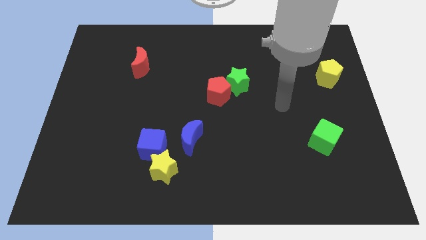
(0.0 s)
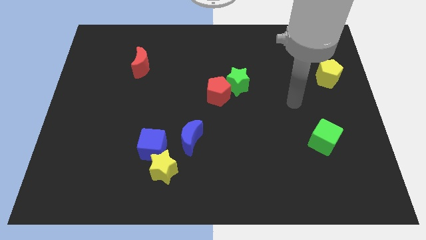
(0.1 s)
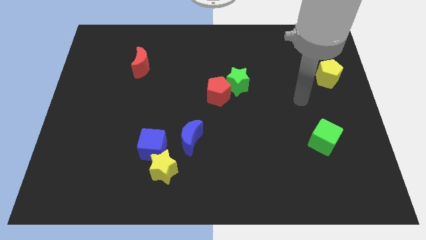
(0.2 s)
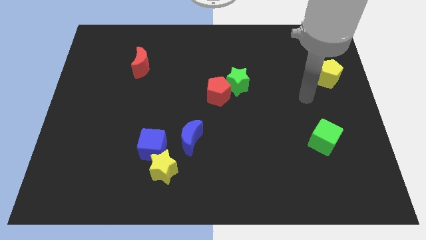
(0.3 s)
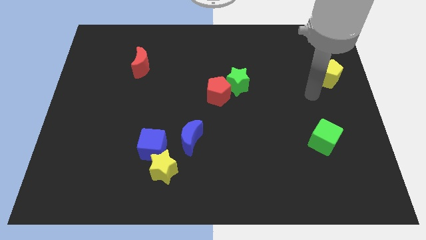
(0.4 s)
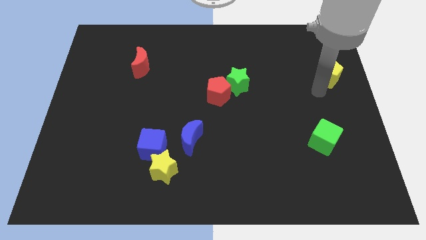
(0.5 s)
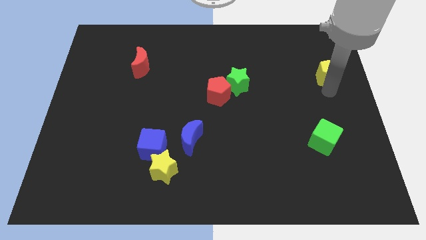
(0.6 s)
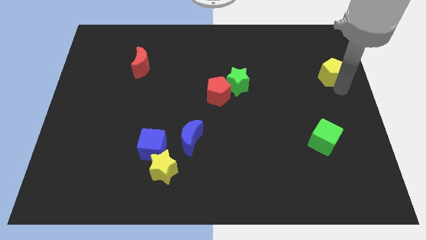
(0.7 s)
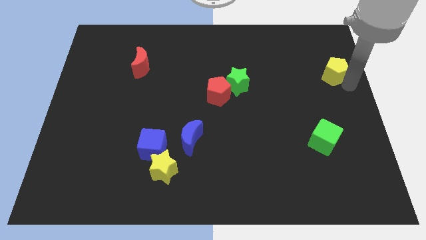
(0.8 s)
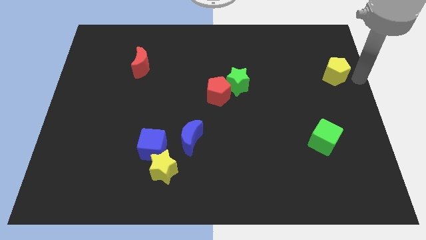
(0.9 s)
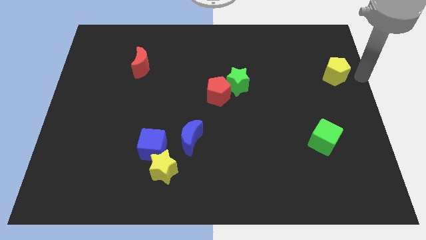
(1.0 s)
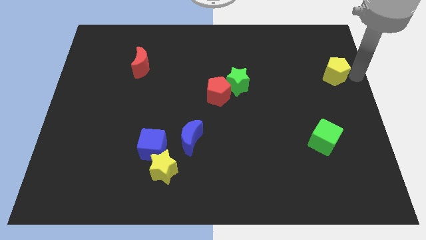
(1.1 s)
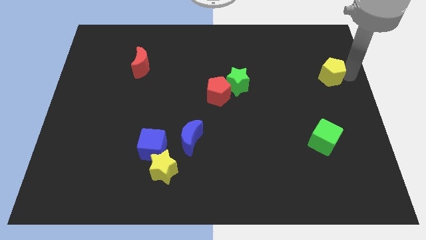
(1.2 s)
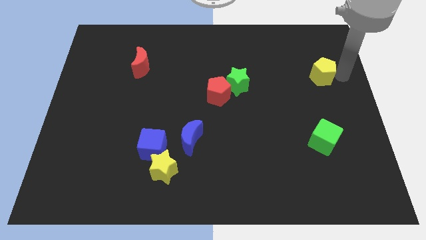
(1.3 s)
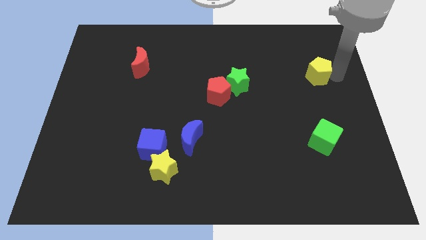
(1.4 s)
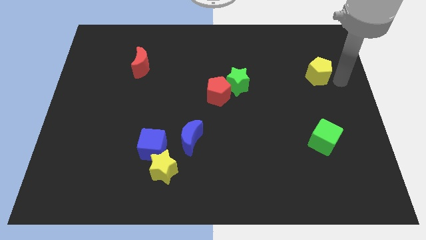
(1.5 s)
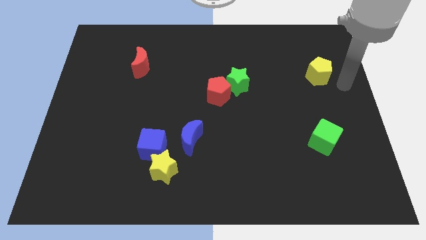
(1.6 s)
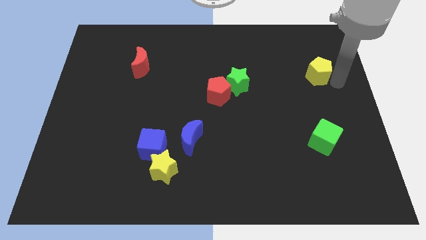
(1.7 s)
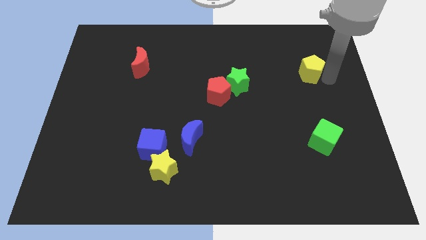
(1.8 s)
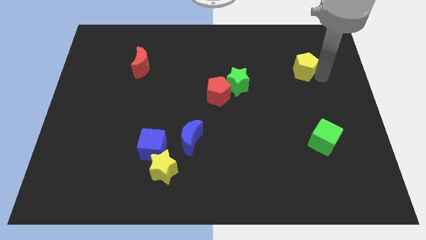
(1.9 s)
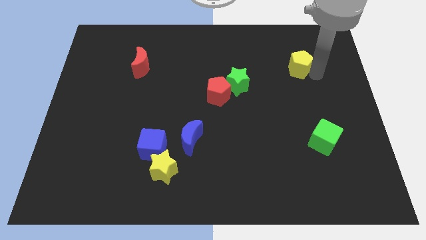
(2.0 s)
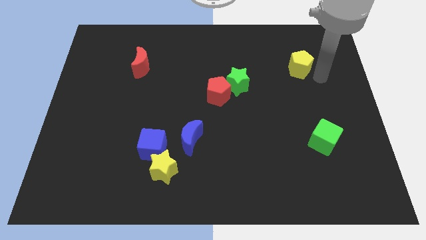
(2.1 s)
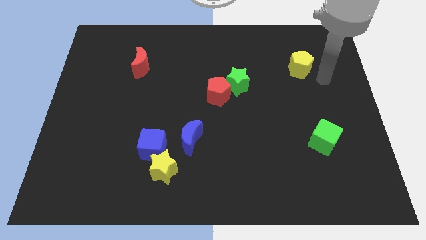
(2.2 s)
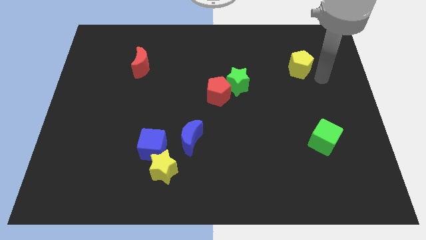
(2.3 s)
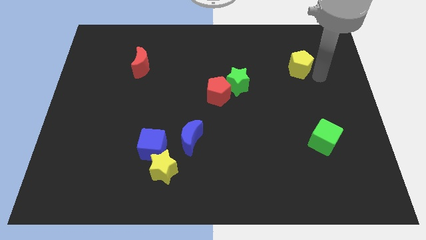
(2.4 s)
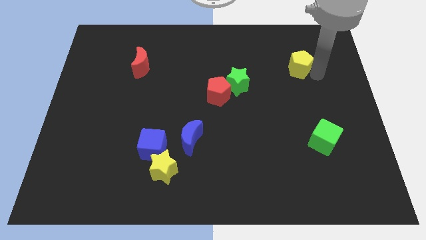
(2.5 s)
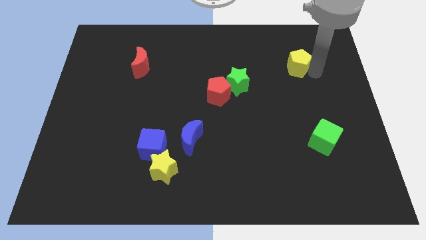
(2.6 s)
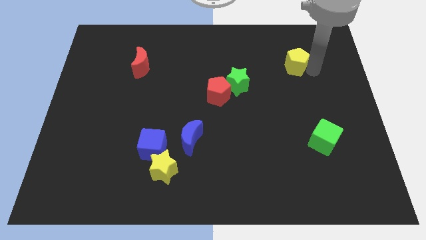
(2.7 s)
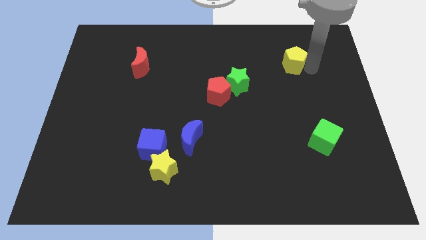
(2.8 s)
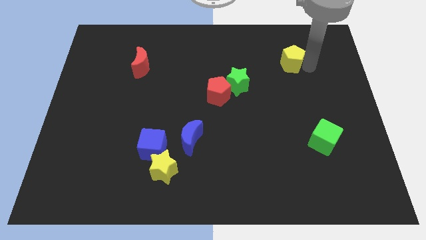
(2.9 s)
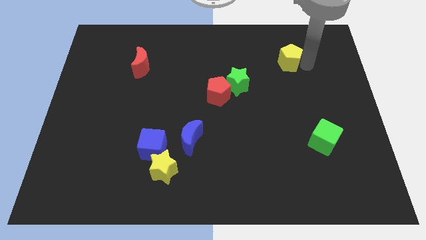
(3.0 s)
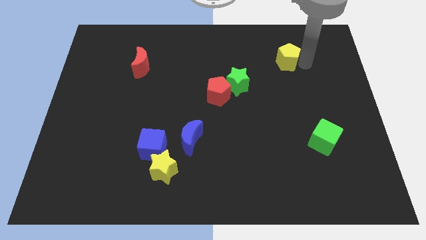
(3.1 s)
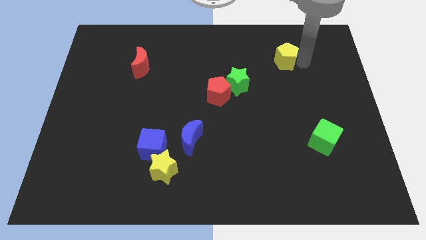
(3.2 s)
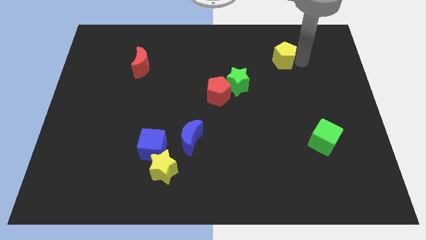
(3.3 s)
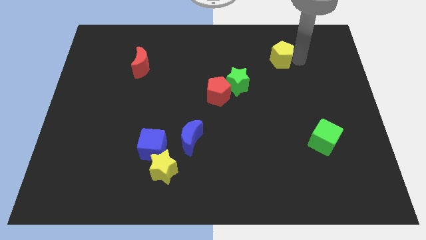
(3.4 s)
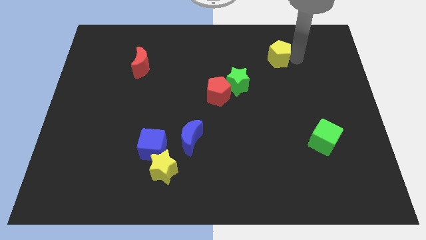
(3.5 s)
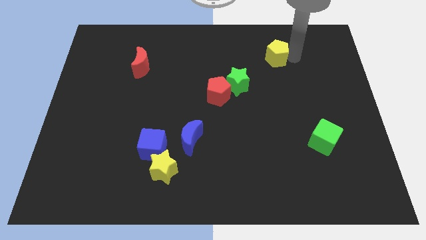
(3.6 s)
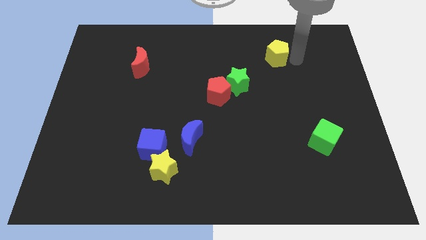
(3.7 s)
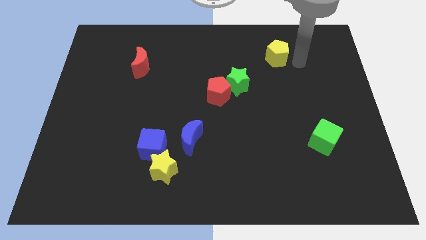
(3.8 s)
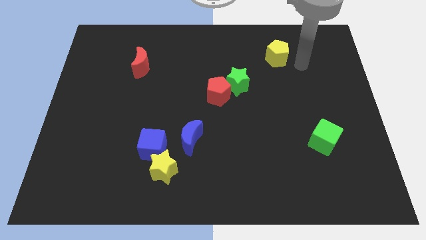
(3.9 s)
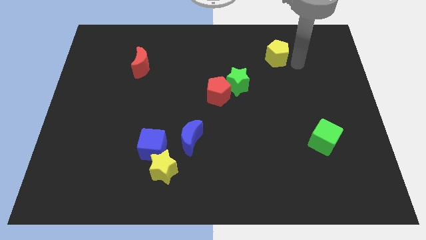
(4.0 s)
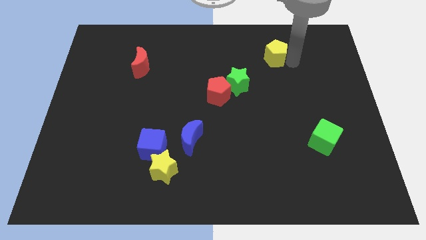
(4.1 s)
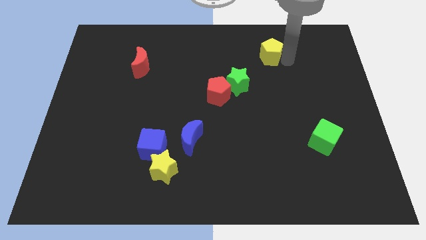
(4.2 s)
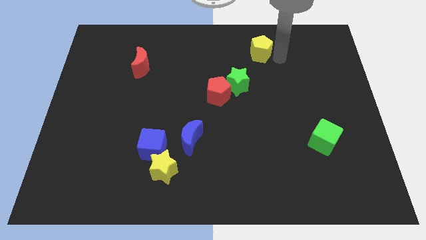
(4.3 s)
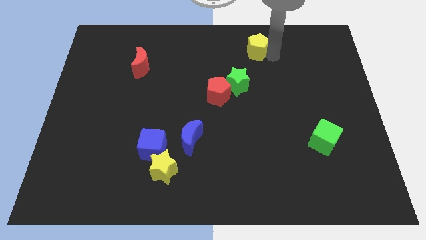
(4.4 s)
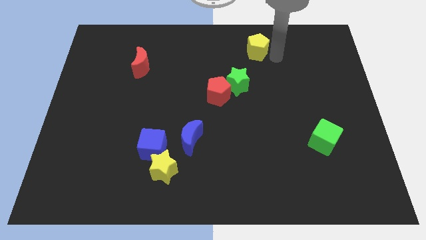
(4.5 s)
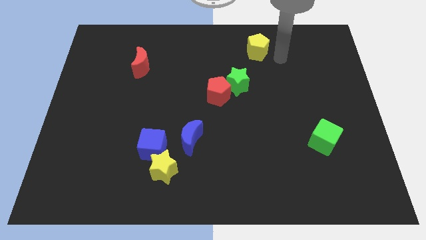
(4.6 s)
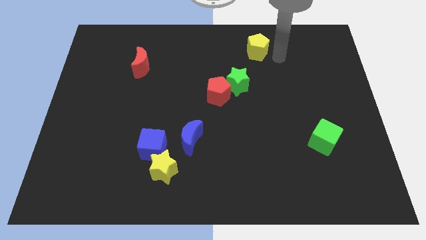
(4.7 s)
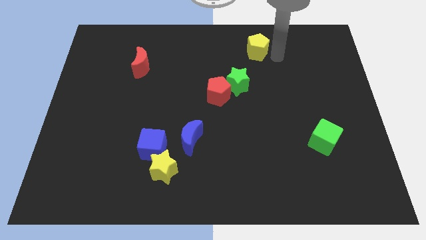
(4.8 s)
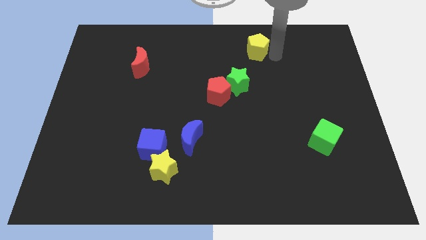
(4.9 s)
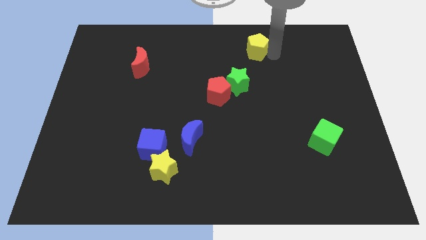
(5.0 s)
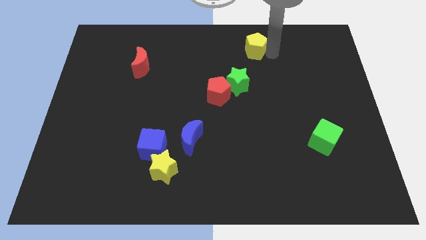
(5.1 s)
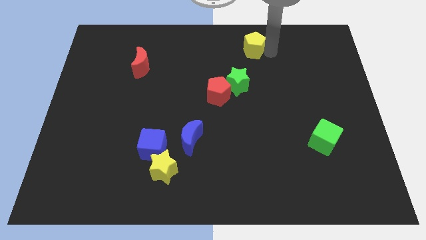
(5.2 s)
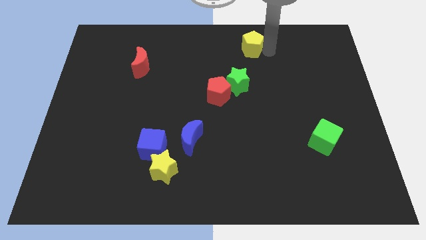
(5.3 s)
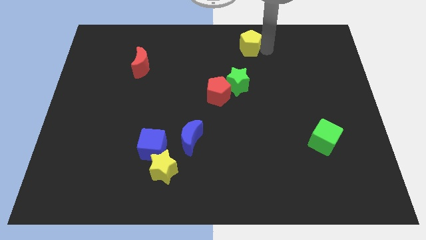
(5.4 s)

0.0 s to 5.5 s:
slide the yellow pentagon to the top side

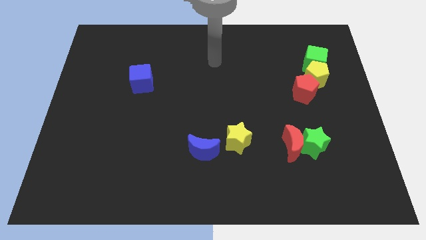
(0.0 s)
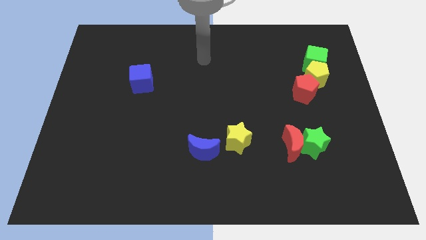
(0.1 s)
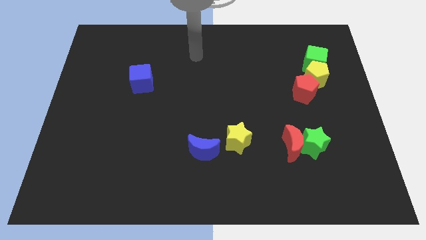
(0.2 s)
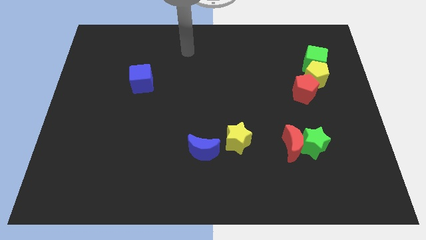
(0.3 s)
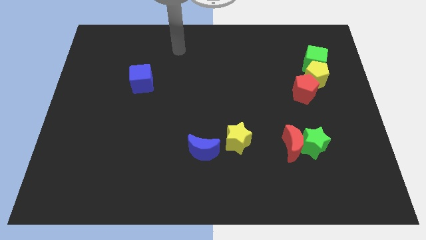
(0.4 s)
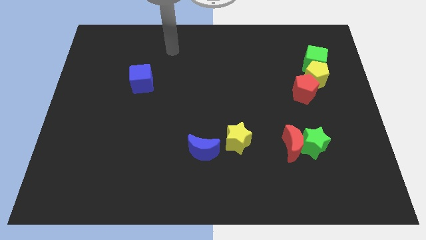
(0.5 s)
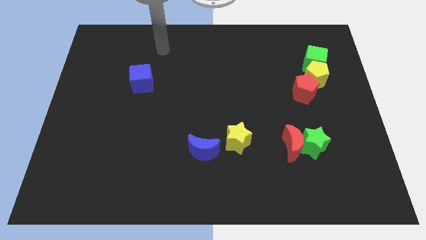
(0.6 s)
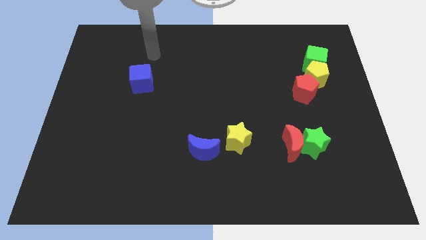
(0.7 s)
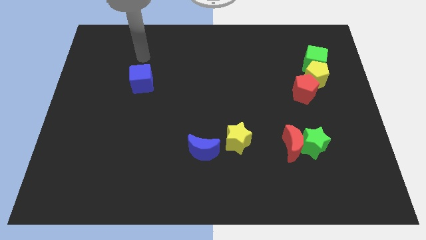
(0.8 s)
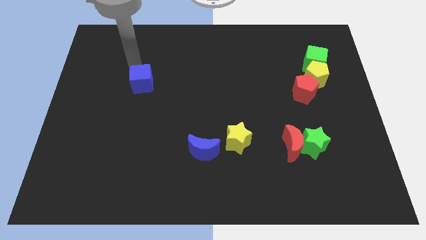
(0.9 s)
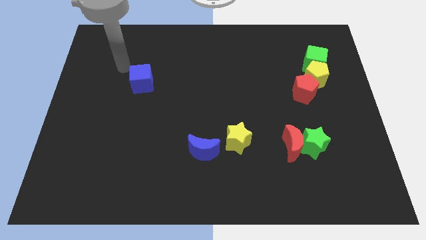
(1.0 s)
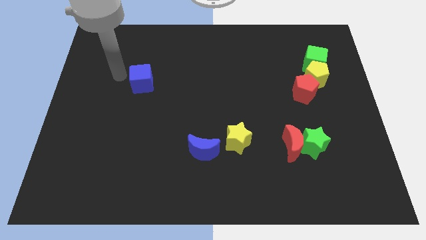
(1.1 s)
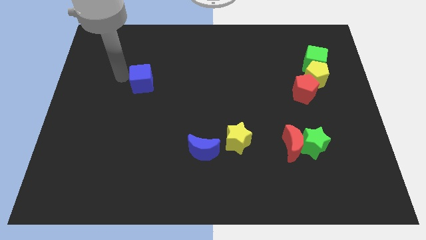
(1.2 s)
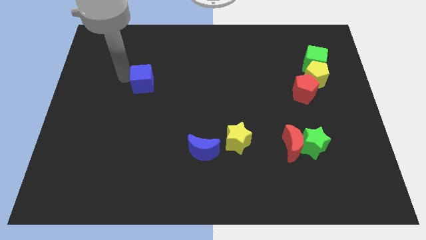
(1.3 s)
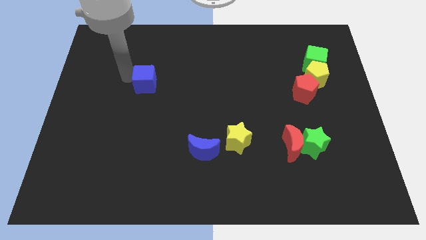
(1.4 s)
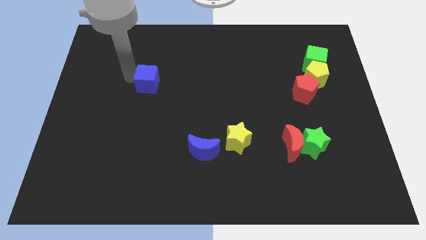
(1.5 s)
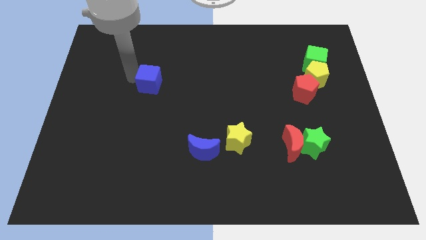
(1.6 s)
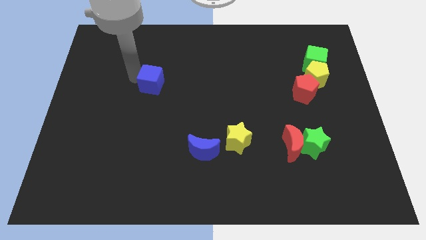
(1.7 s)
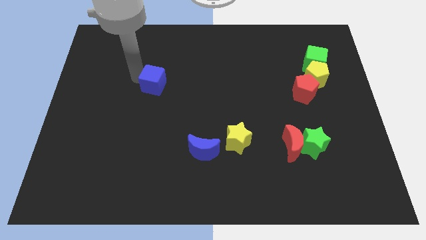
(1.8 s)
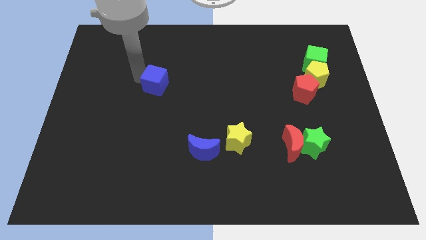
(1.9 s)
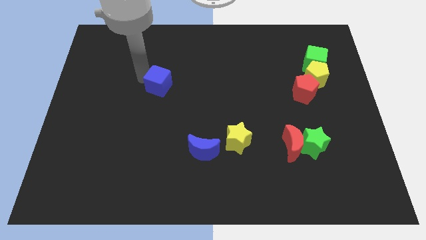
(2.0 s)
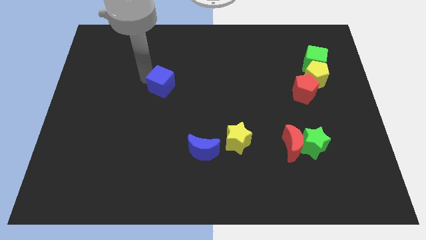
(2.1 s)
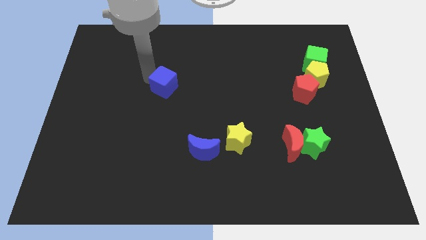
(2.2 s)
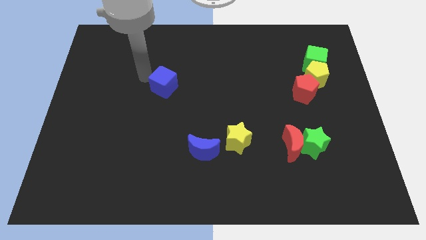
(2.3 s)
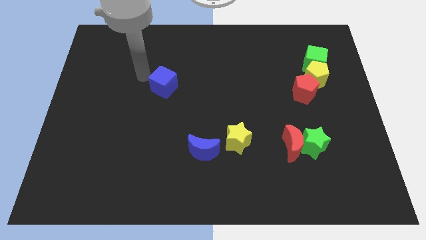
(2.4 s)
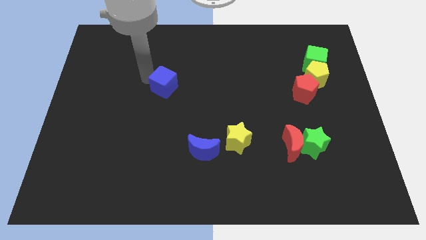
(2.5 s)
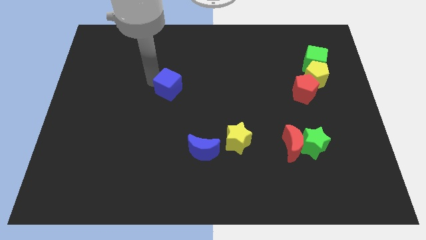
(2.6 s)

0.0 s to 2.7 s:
move the blue cube to the center
